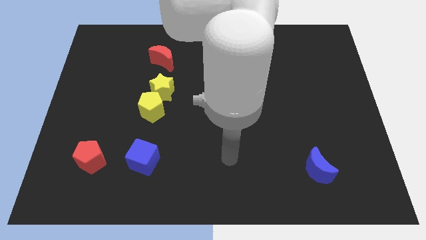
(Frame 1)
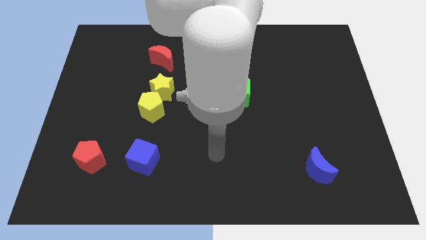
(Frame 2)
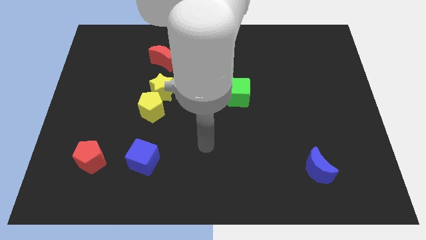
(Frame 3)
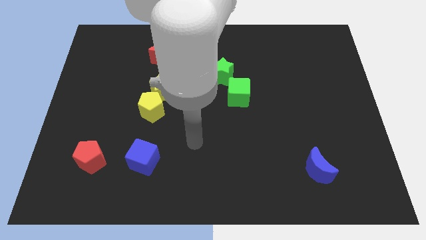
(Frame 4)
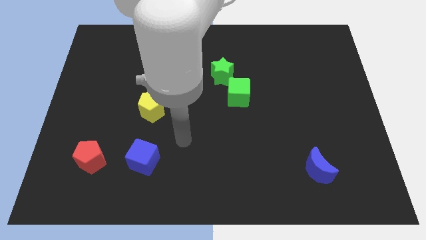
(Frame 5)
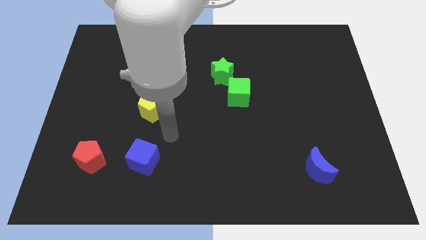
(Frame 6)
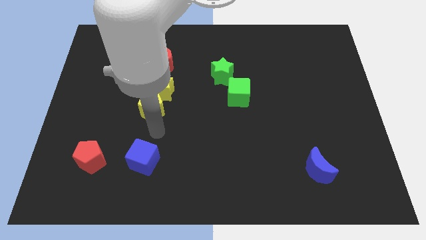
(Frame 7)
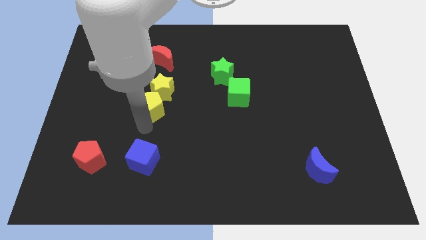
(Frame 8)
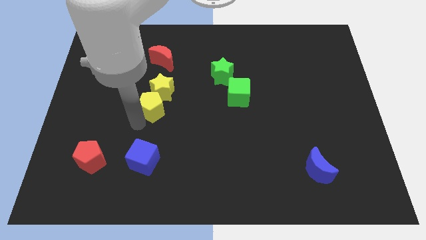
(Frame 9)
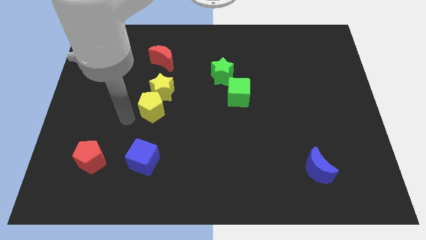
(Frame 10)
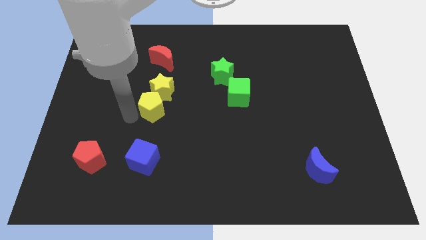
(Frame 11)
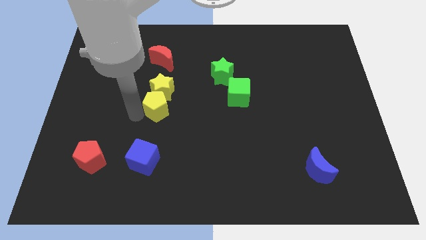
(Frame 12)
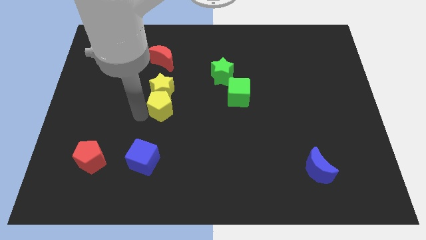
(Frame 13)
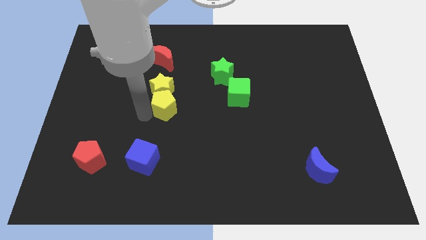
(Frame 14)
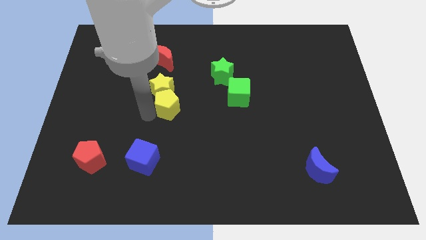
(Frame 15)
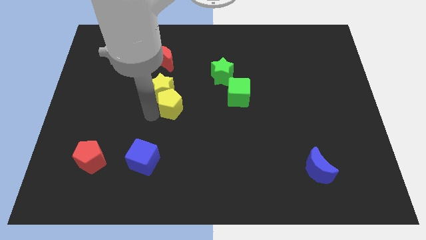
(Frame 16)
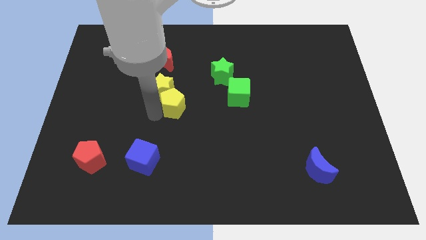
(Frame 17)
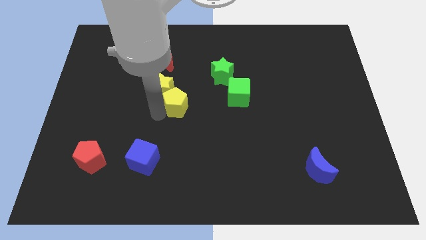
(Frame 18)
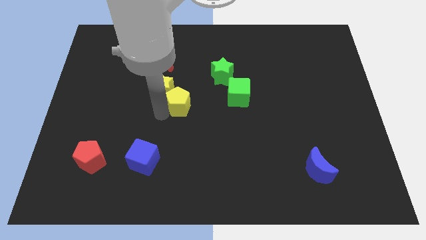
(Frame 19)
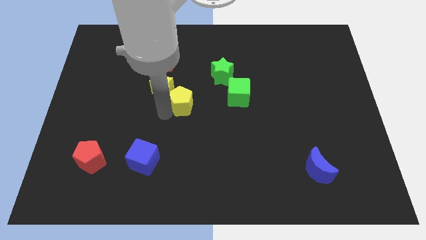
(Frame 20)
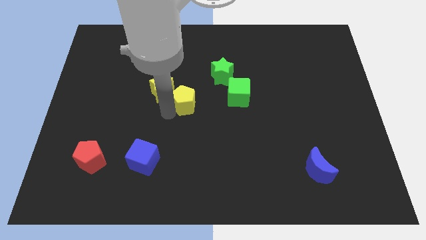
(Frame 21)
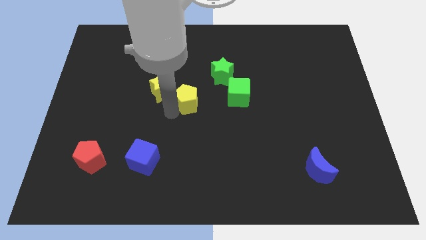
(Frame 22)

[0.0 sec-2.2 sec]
push the yellow pentagon upwards and to the right diagonally a little

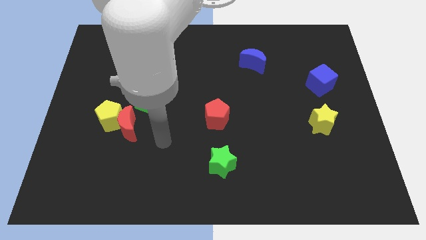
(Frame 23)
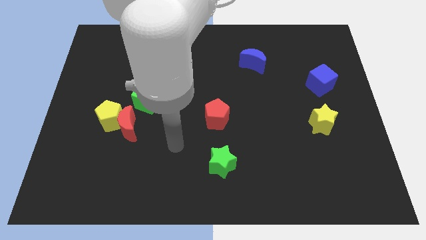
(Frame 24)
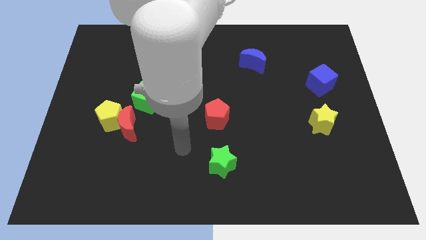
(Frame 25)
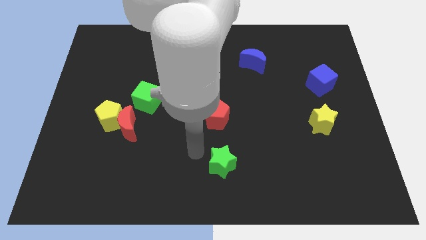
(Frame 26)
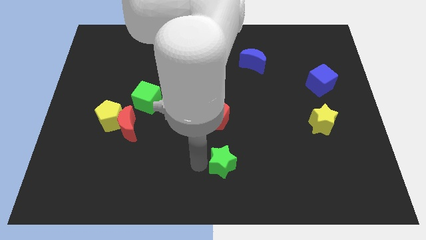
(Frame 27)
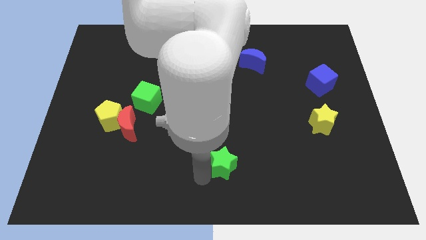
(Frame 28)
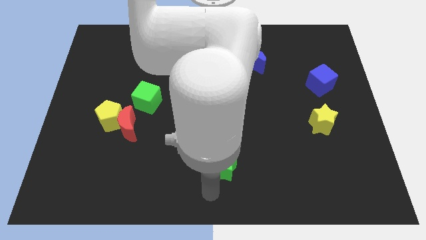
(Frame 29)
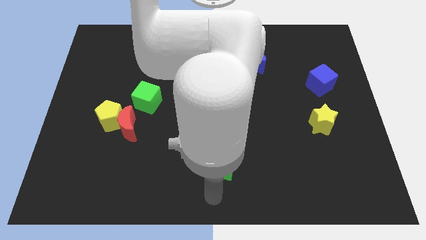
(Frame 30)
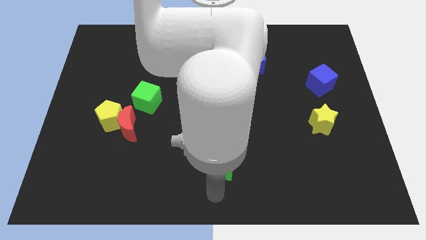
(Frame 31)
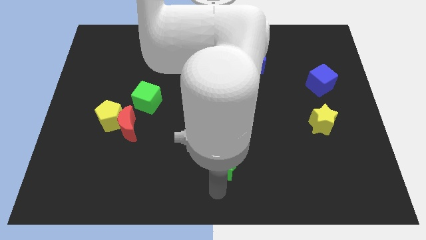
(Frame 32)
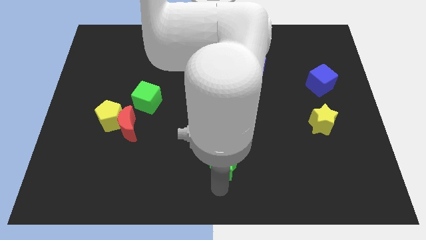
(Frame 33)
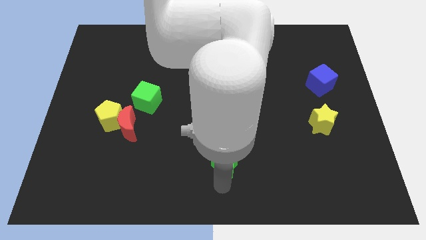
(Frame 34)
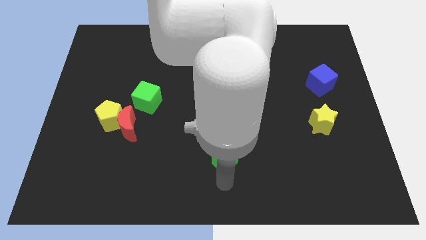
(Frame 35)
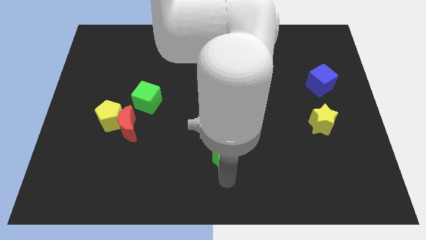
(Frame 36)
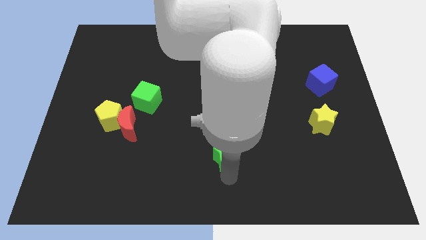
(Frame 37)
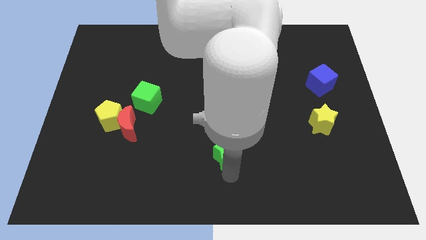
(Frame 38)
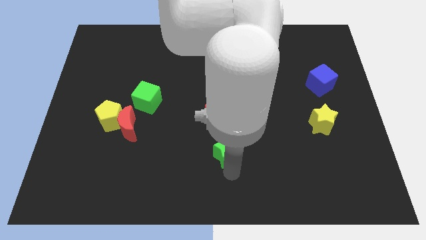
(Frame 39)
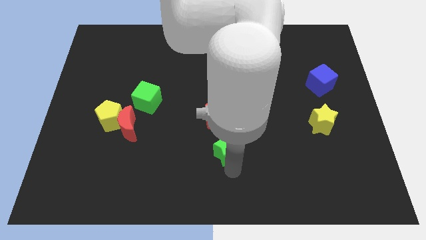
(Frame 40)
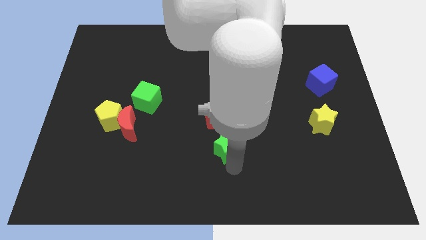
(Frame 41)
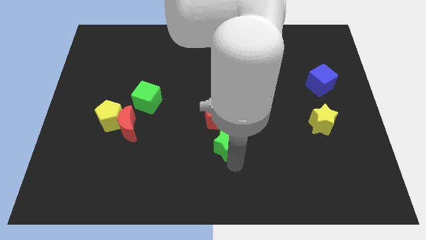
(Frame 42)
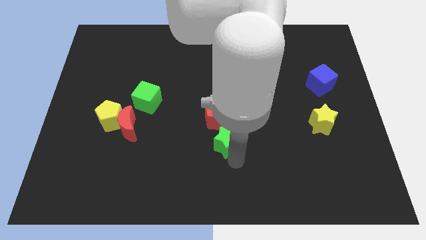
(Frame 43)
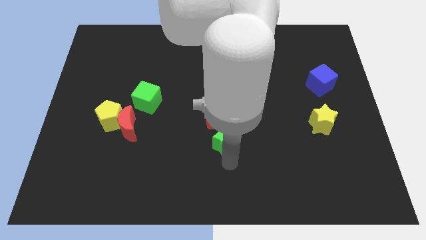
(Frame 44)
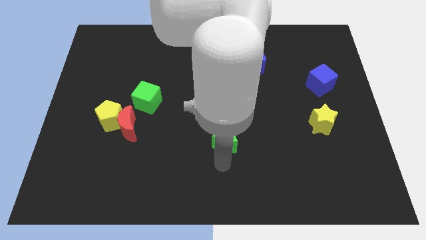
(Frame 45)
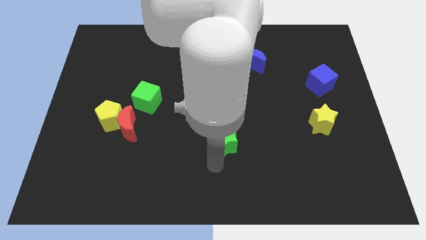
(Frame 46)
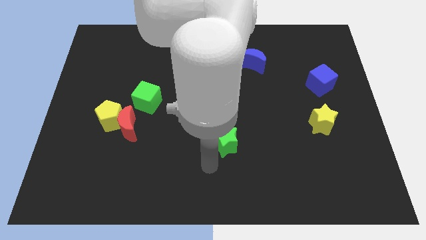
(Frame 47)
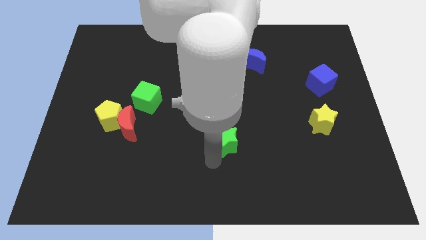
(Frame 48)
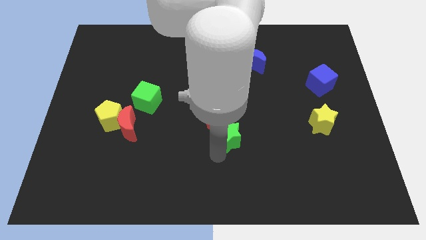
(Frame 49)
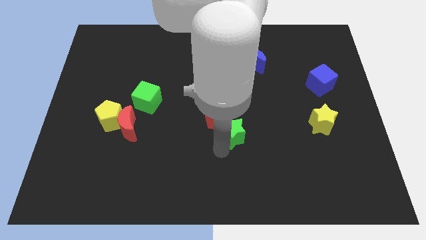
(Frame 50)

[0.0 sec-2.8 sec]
slide the green star a little bit upwards

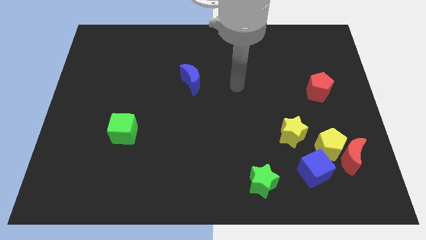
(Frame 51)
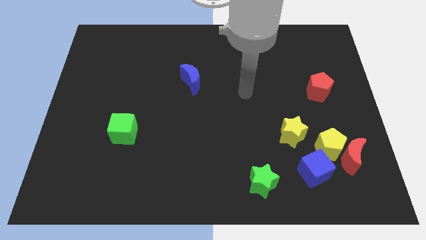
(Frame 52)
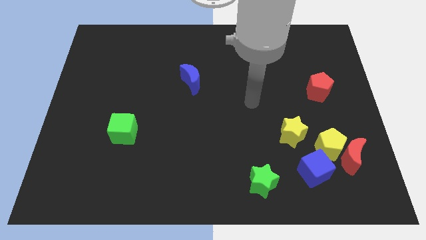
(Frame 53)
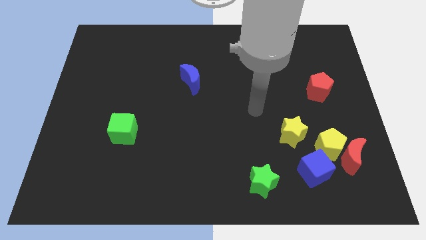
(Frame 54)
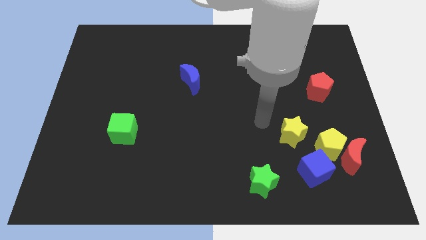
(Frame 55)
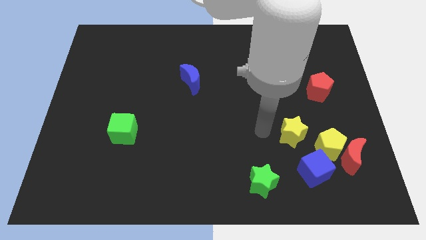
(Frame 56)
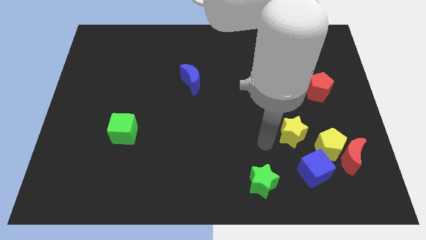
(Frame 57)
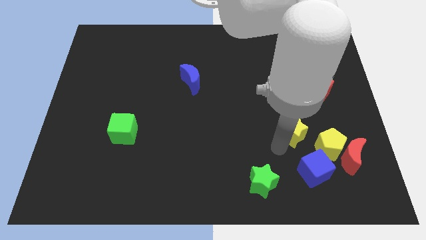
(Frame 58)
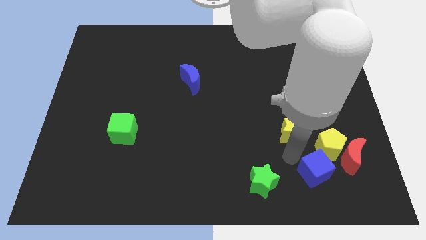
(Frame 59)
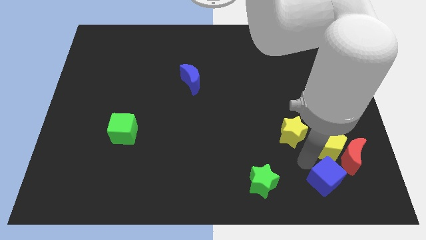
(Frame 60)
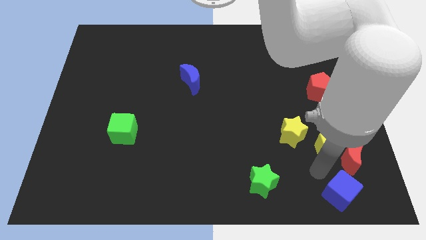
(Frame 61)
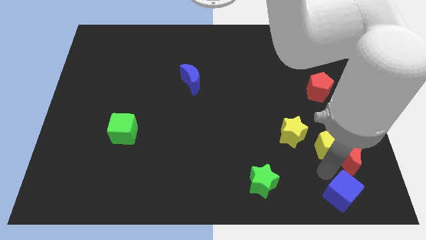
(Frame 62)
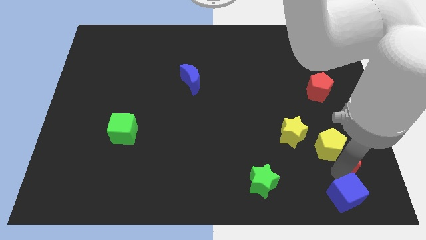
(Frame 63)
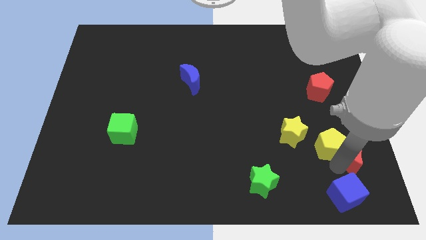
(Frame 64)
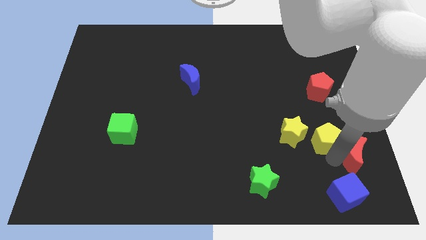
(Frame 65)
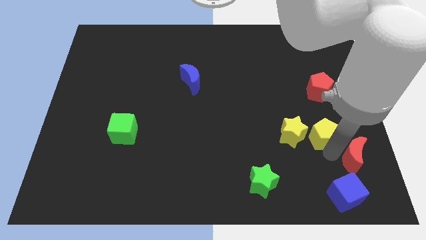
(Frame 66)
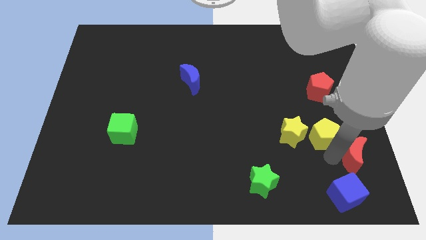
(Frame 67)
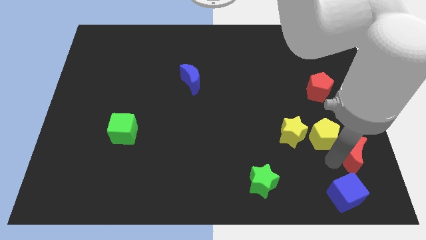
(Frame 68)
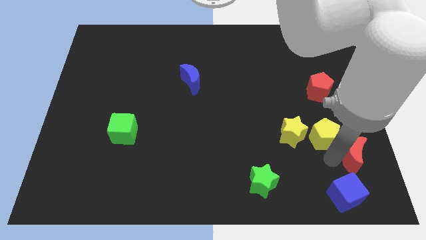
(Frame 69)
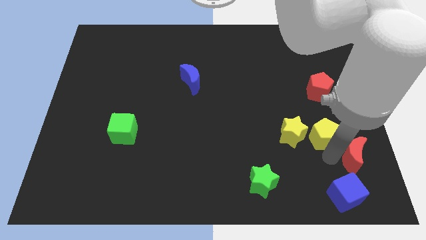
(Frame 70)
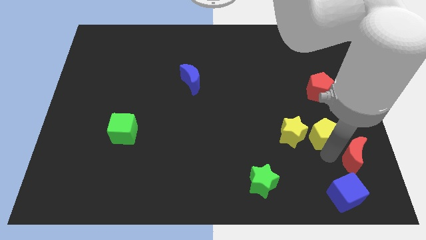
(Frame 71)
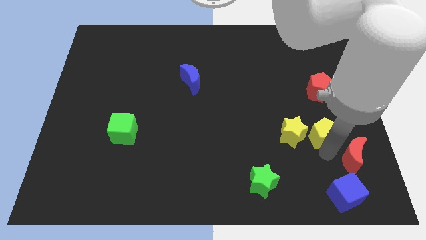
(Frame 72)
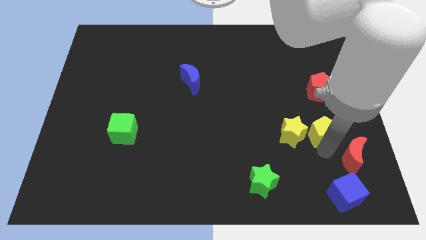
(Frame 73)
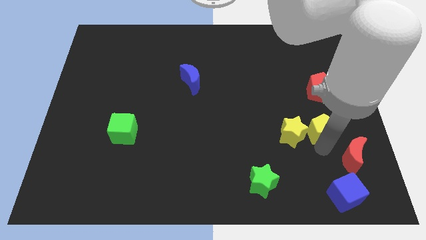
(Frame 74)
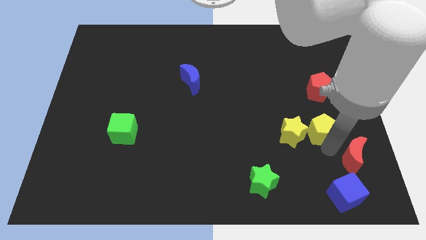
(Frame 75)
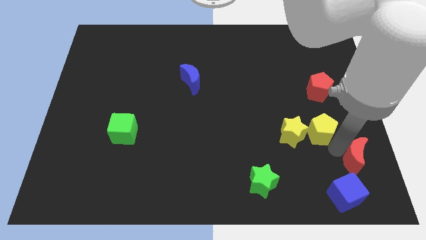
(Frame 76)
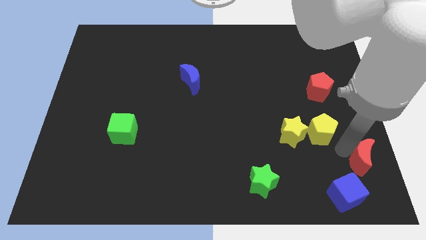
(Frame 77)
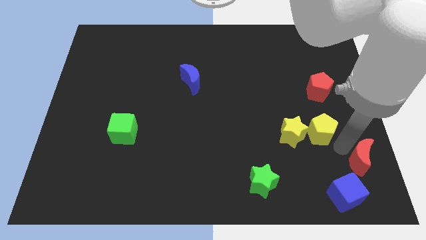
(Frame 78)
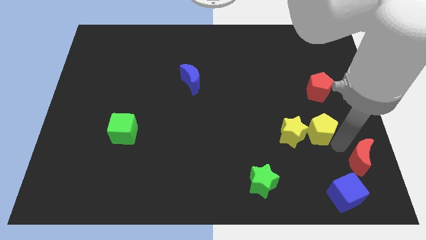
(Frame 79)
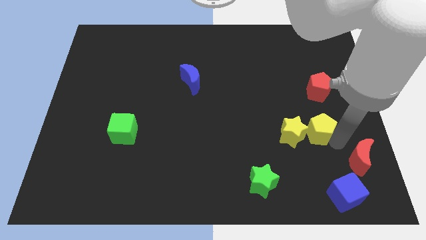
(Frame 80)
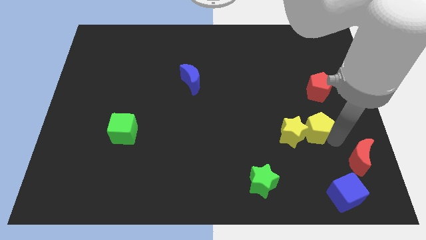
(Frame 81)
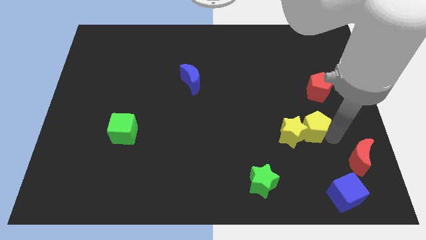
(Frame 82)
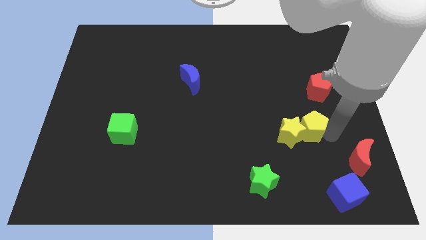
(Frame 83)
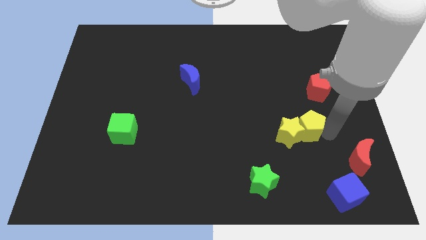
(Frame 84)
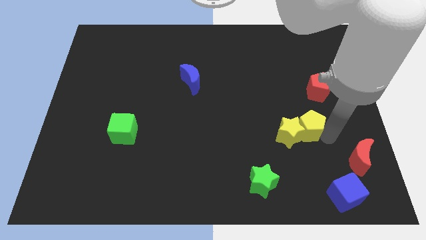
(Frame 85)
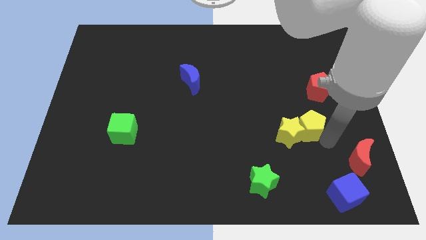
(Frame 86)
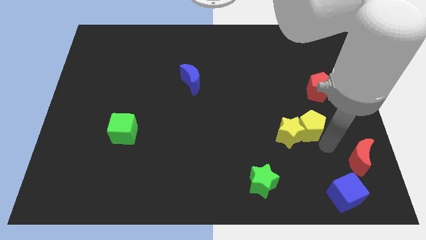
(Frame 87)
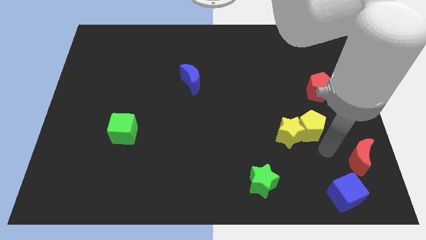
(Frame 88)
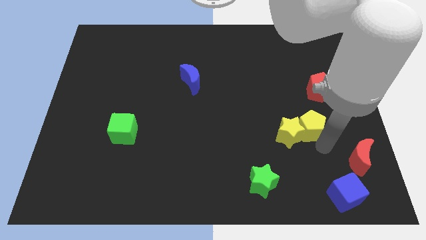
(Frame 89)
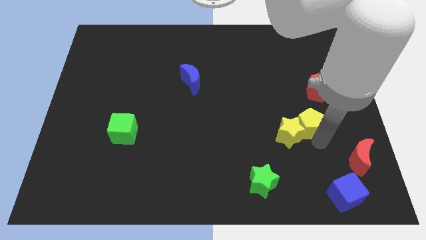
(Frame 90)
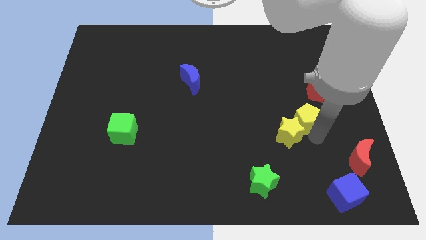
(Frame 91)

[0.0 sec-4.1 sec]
move the yellow pentagon diagonally upwards and to the left a bit
